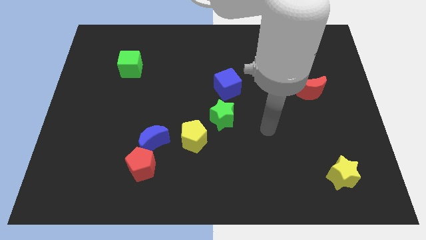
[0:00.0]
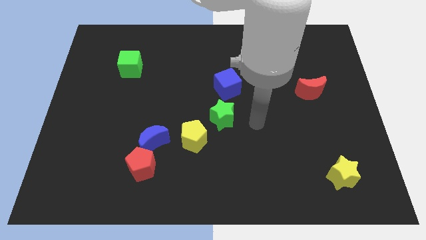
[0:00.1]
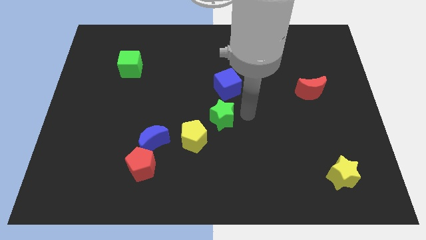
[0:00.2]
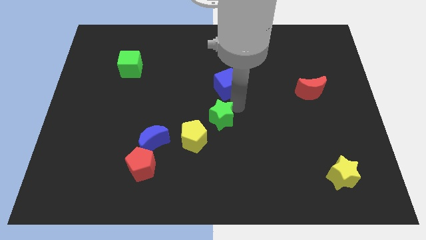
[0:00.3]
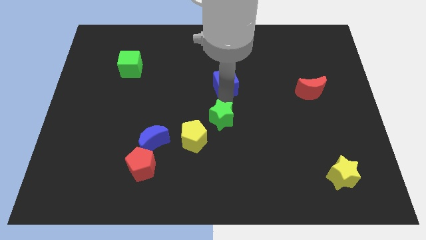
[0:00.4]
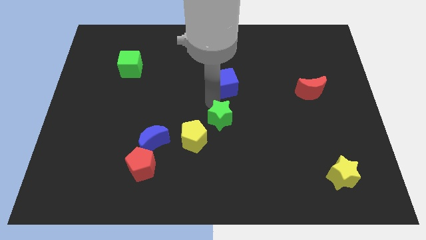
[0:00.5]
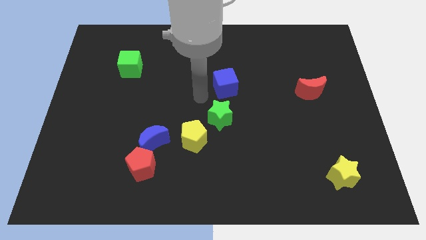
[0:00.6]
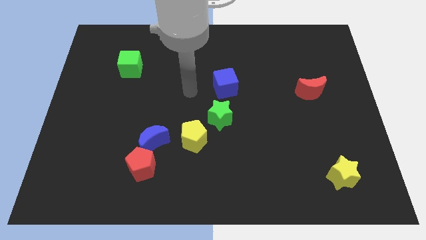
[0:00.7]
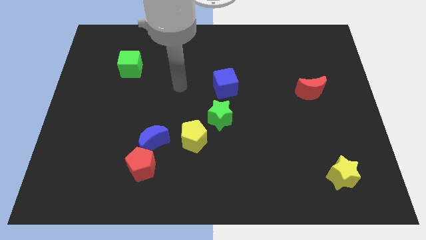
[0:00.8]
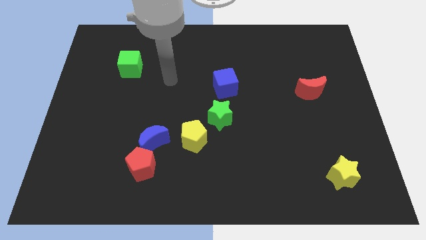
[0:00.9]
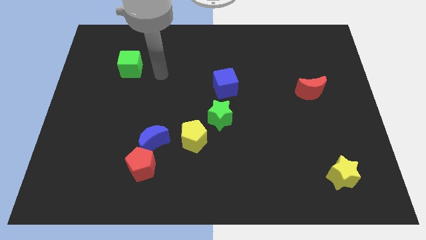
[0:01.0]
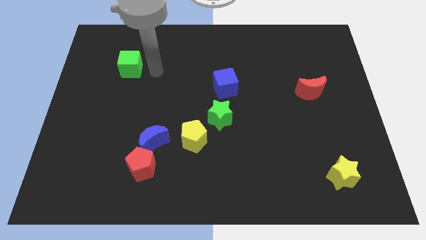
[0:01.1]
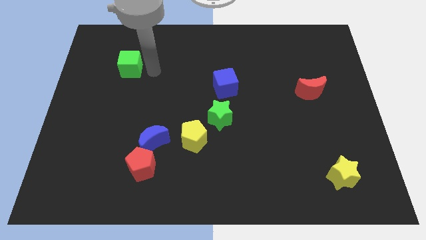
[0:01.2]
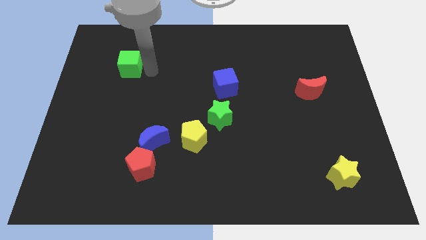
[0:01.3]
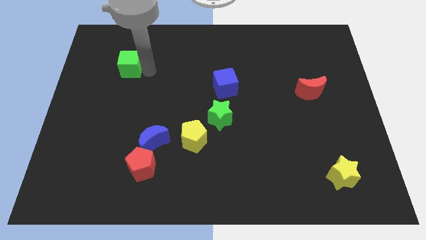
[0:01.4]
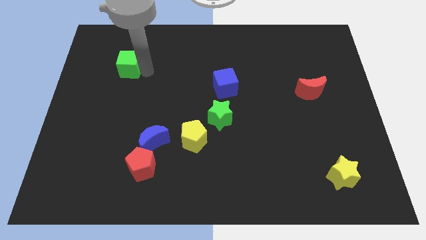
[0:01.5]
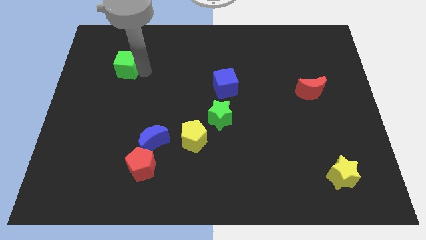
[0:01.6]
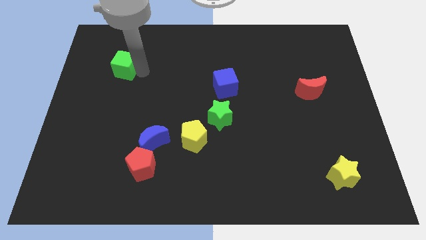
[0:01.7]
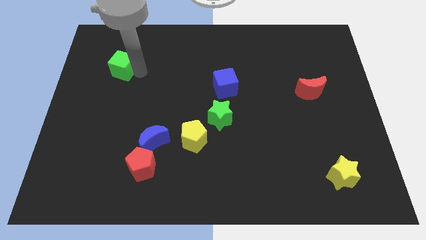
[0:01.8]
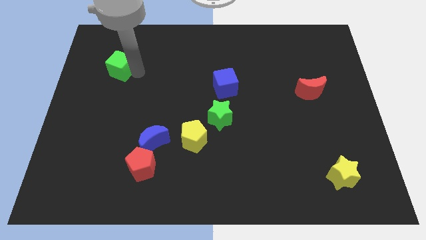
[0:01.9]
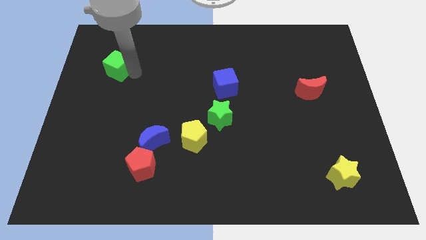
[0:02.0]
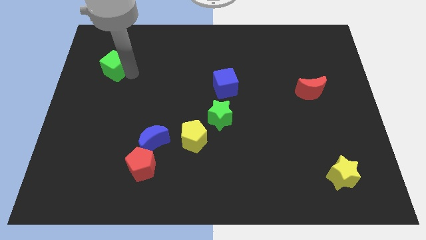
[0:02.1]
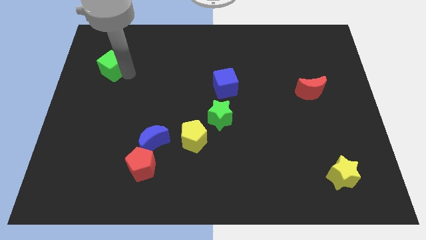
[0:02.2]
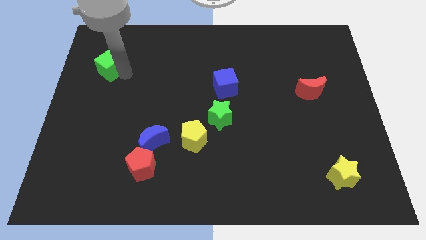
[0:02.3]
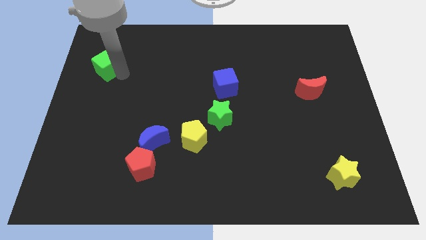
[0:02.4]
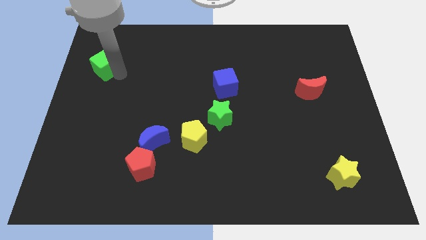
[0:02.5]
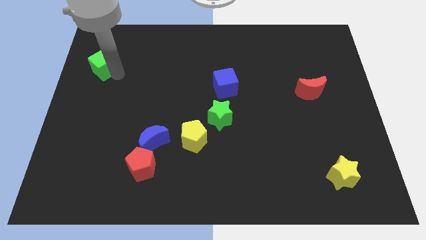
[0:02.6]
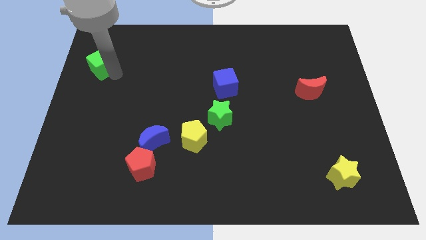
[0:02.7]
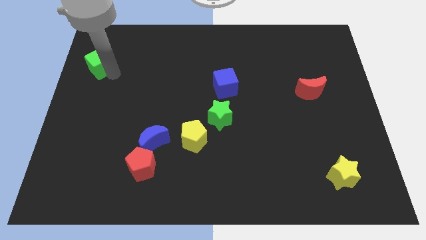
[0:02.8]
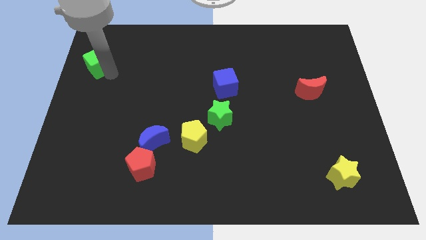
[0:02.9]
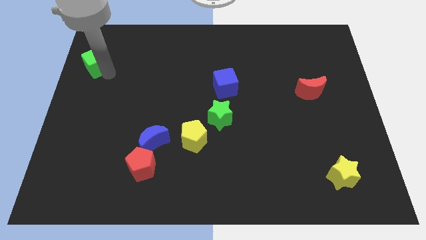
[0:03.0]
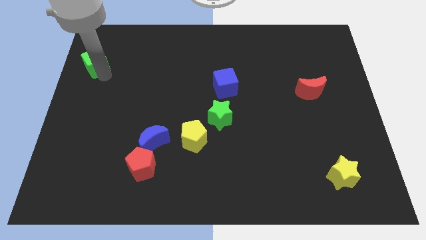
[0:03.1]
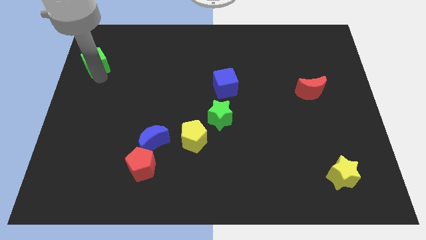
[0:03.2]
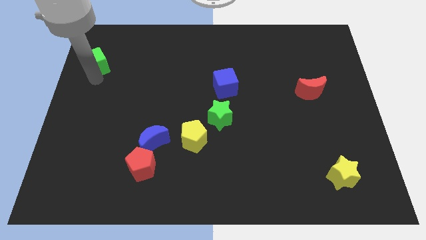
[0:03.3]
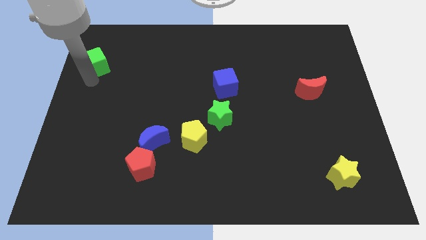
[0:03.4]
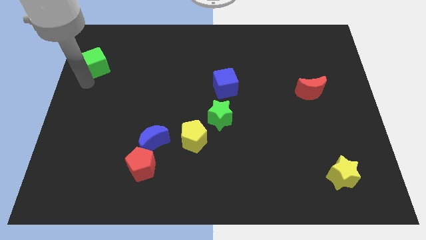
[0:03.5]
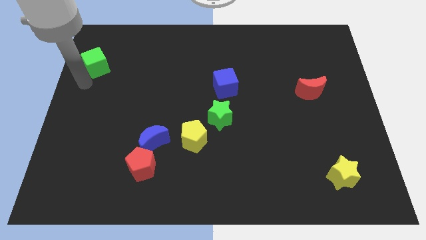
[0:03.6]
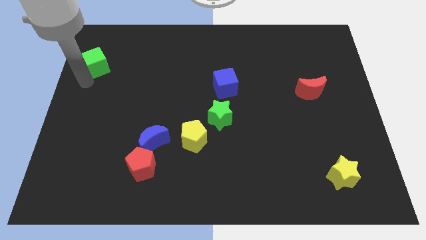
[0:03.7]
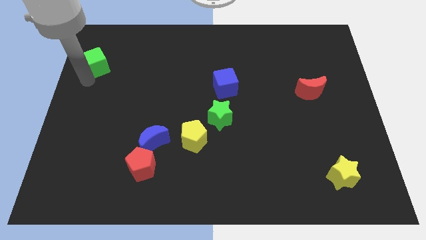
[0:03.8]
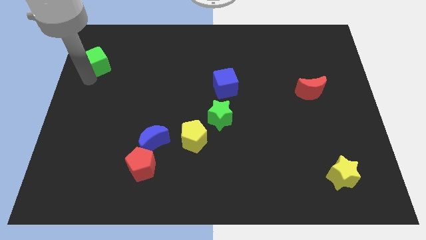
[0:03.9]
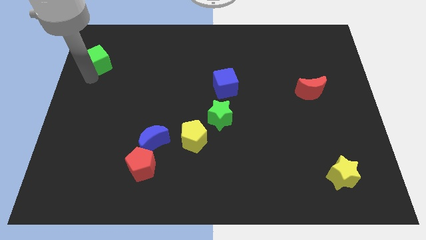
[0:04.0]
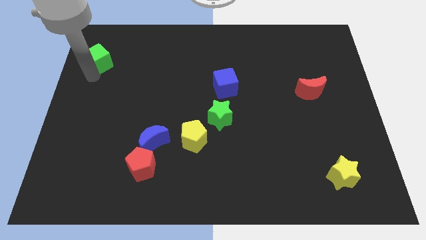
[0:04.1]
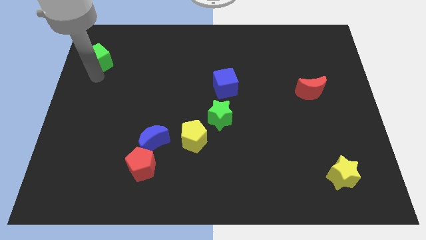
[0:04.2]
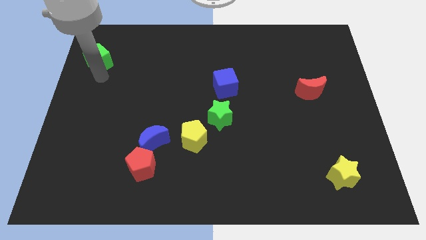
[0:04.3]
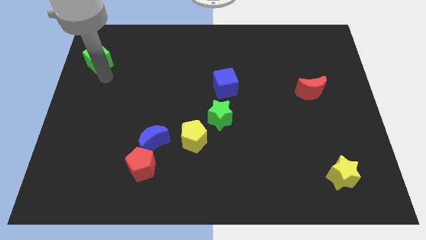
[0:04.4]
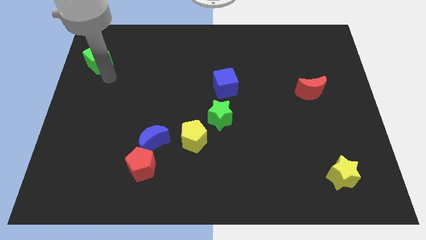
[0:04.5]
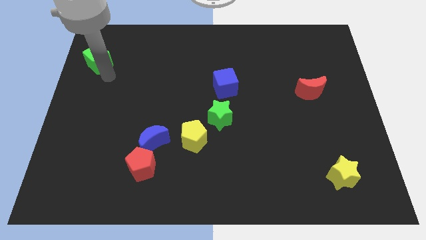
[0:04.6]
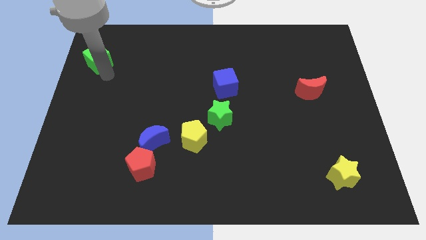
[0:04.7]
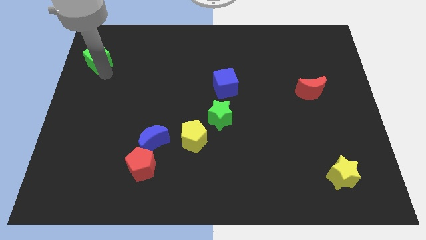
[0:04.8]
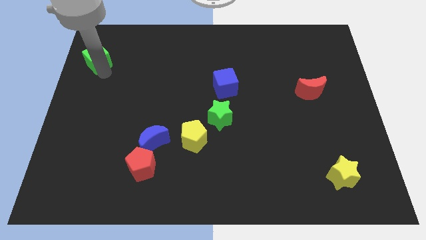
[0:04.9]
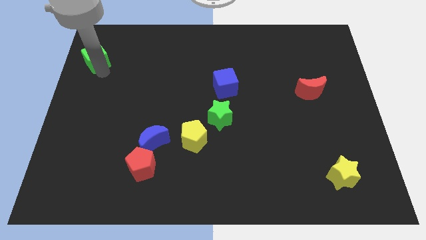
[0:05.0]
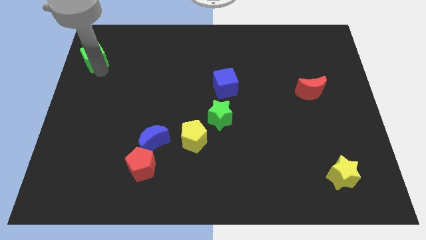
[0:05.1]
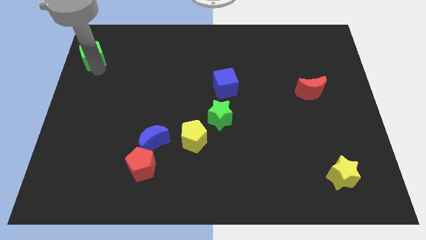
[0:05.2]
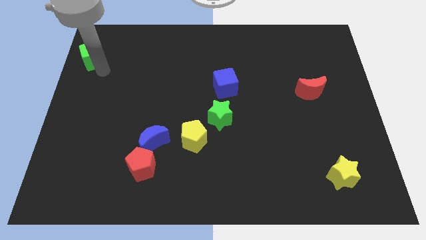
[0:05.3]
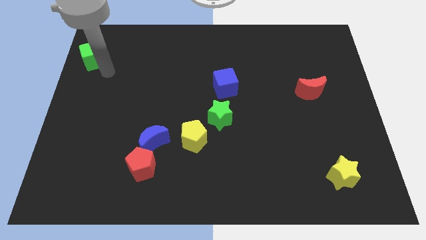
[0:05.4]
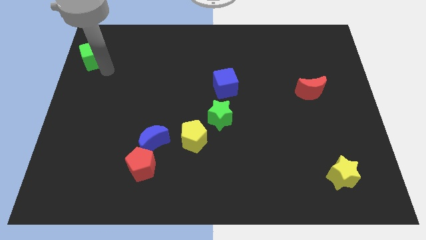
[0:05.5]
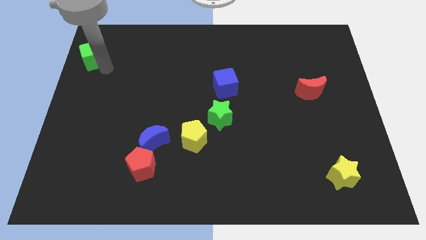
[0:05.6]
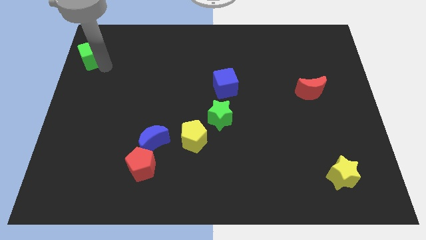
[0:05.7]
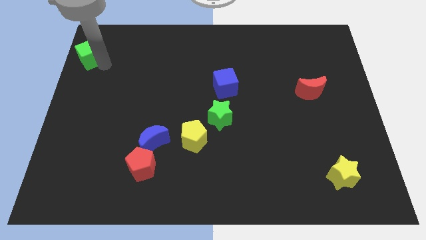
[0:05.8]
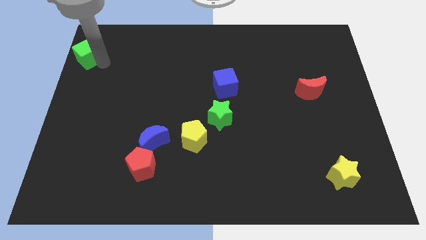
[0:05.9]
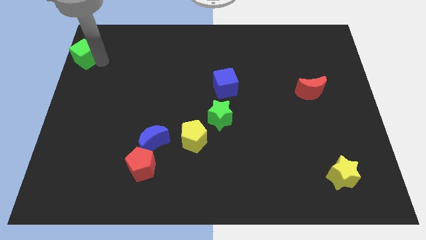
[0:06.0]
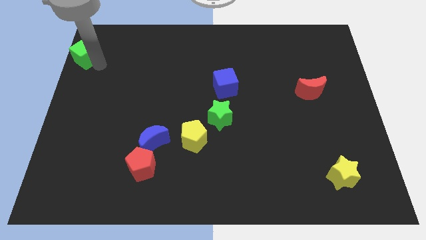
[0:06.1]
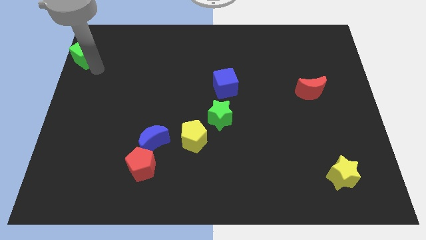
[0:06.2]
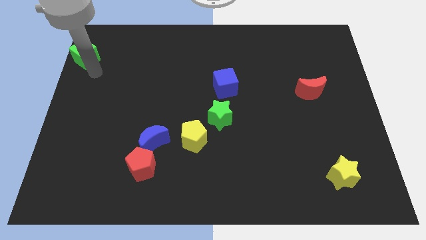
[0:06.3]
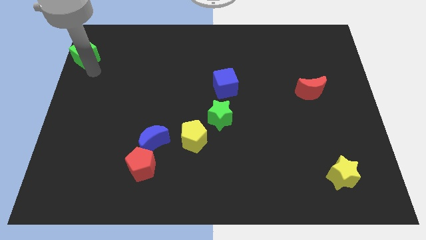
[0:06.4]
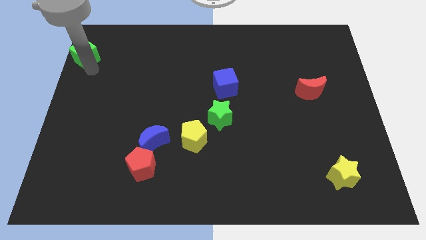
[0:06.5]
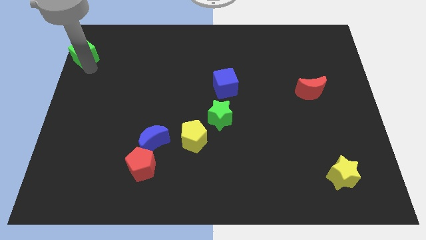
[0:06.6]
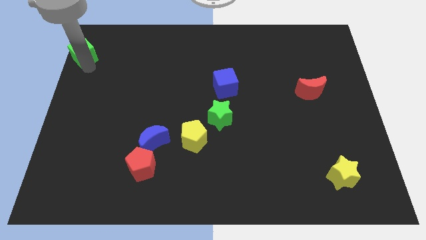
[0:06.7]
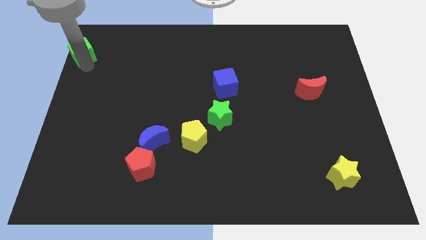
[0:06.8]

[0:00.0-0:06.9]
slide the green cube to the top left of the board

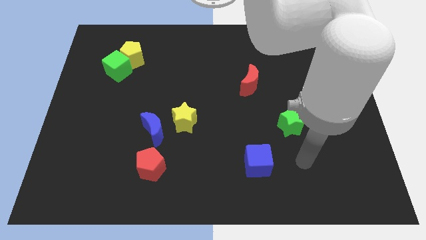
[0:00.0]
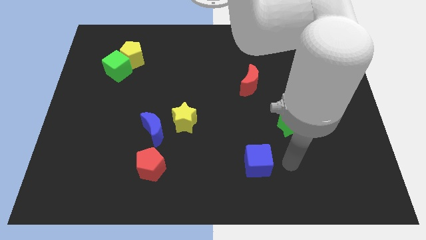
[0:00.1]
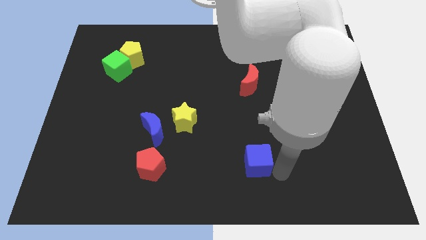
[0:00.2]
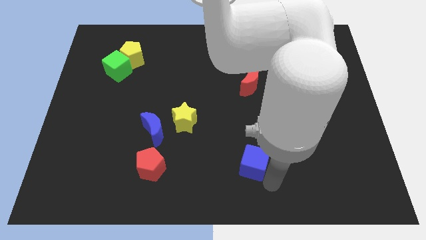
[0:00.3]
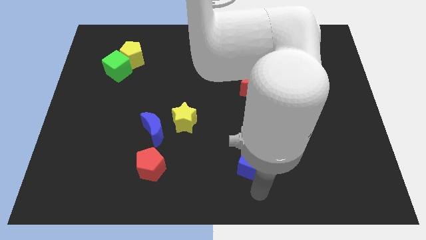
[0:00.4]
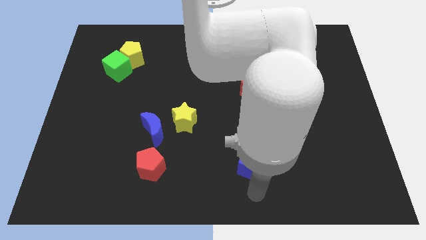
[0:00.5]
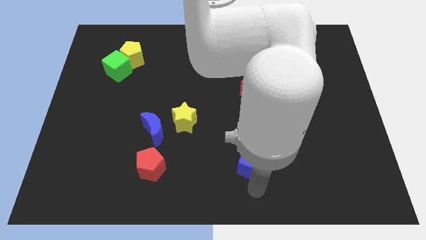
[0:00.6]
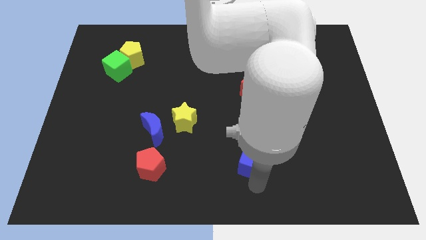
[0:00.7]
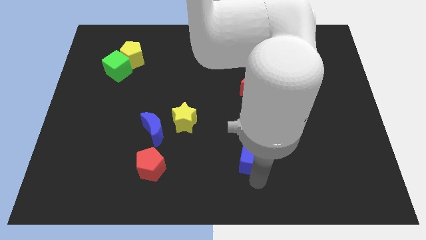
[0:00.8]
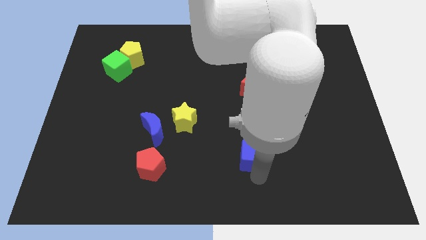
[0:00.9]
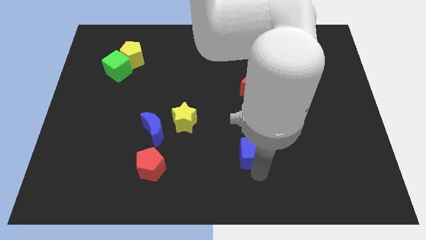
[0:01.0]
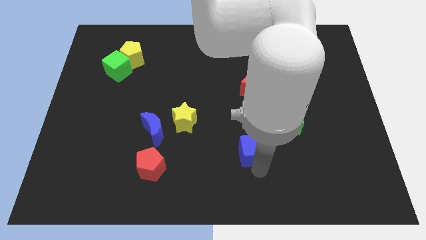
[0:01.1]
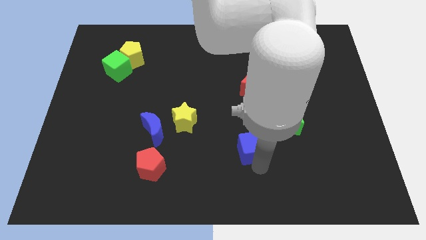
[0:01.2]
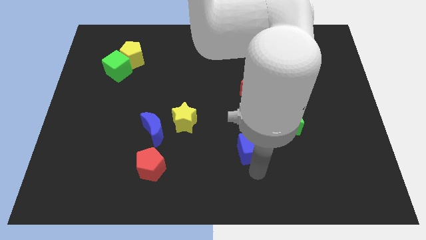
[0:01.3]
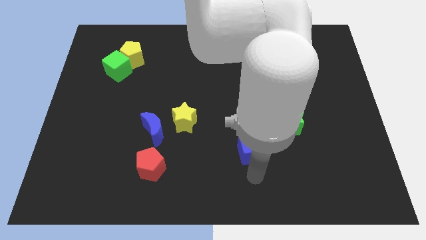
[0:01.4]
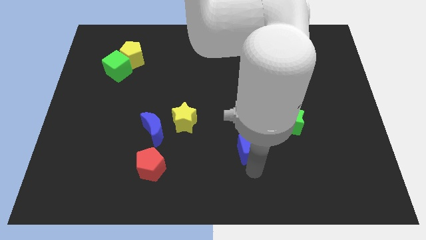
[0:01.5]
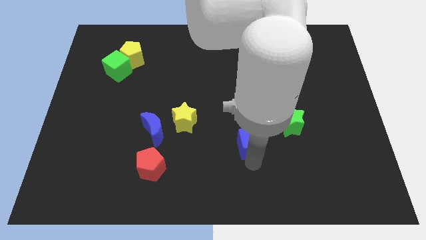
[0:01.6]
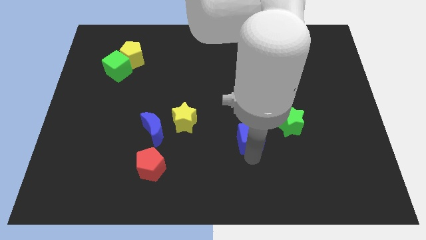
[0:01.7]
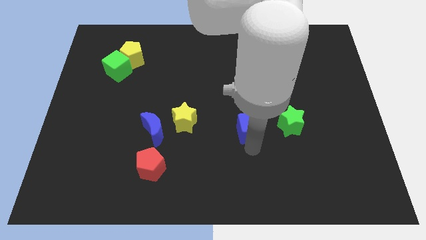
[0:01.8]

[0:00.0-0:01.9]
push the blue cube to the center of the board
